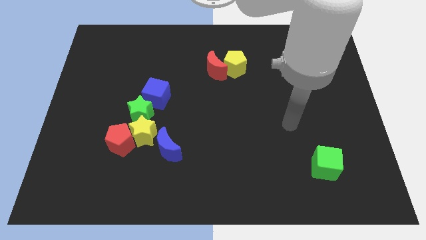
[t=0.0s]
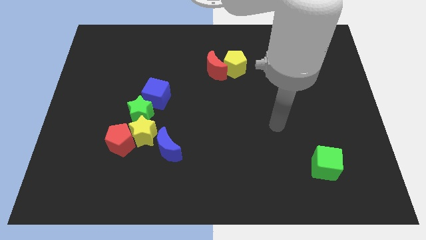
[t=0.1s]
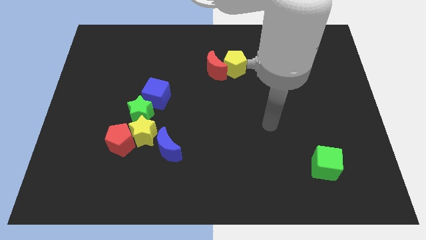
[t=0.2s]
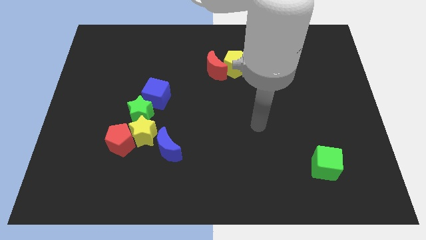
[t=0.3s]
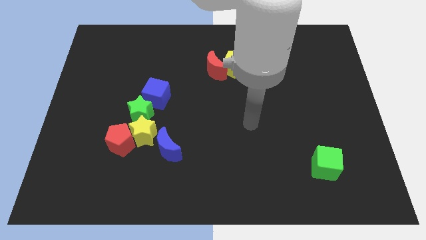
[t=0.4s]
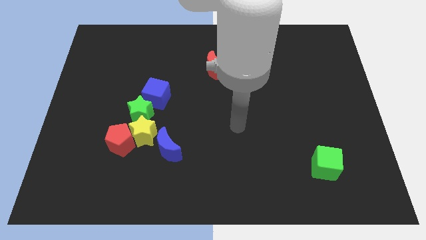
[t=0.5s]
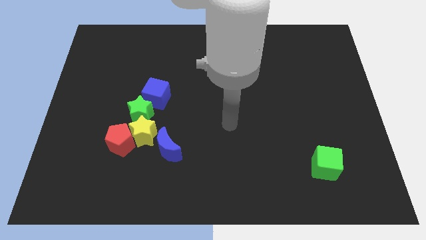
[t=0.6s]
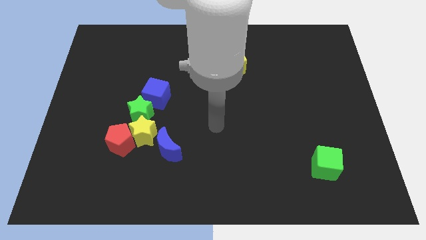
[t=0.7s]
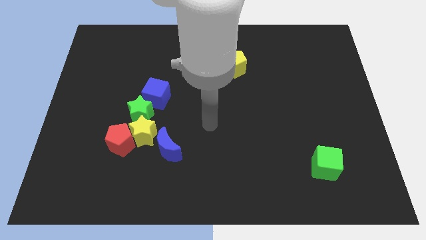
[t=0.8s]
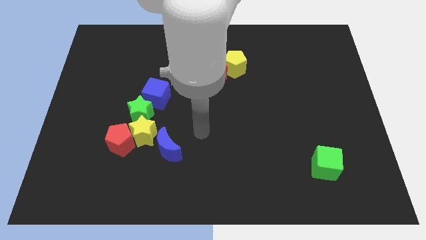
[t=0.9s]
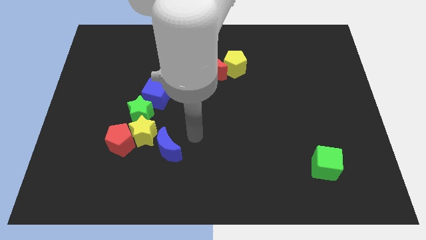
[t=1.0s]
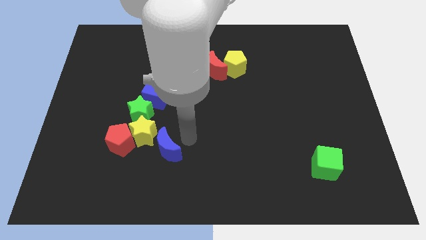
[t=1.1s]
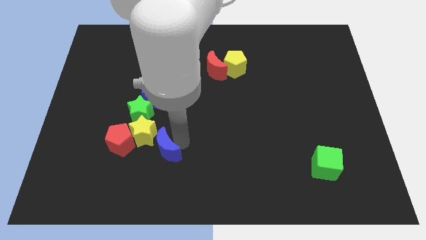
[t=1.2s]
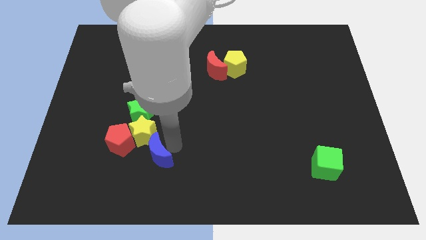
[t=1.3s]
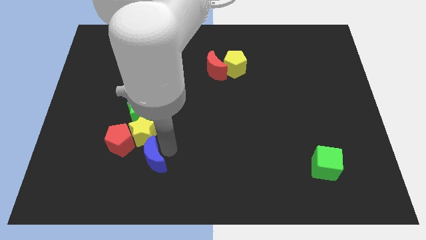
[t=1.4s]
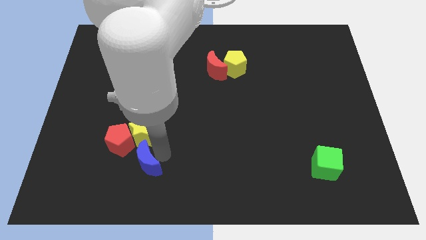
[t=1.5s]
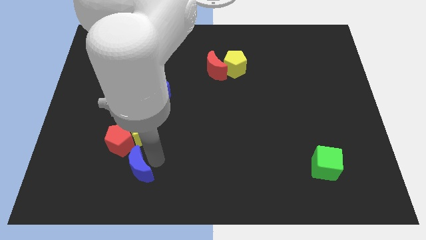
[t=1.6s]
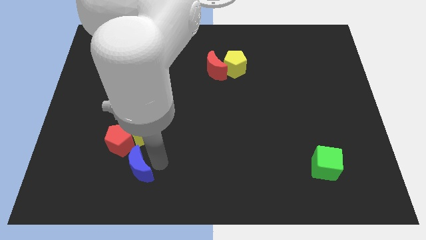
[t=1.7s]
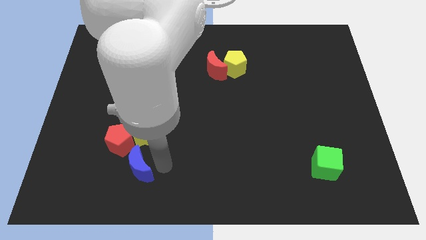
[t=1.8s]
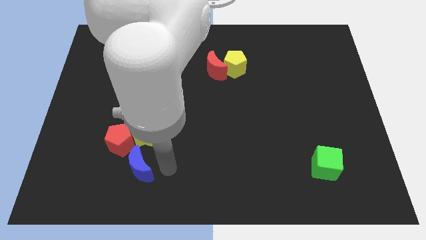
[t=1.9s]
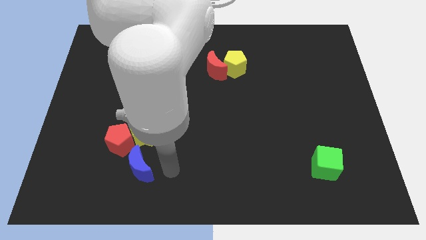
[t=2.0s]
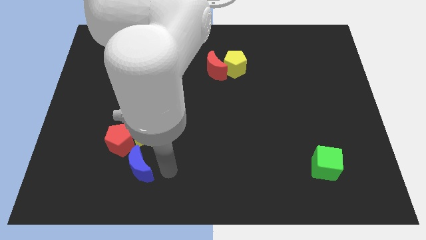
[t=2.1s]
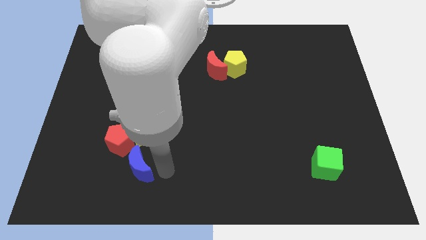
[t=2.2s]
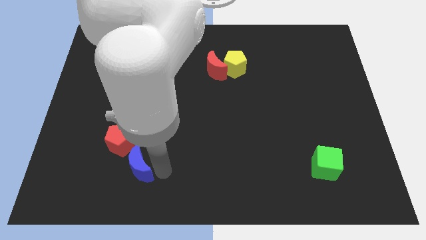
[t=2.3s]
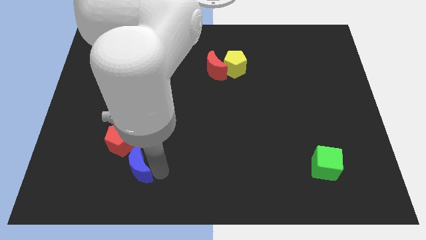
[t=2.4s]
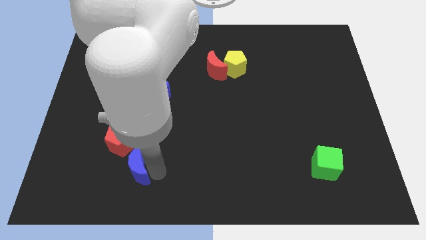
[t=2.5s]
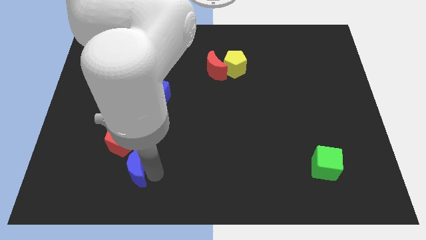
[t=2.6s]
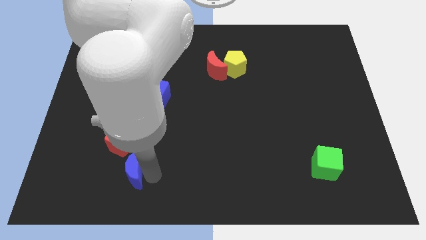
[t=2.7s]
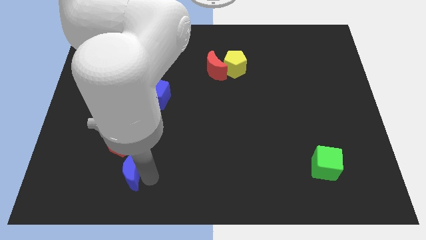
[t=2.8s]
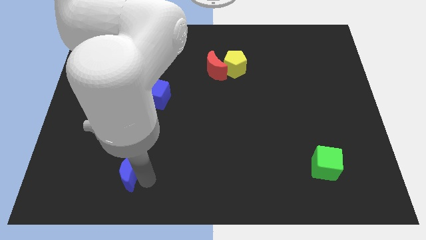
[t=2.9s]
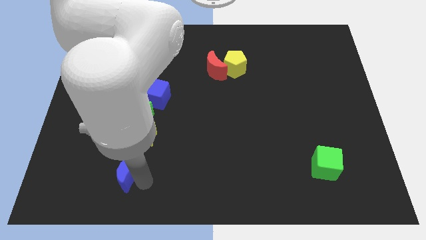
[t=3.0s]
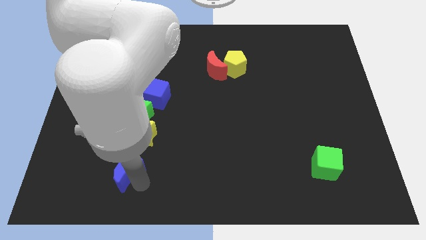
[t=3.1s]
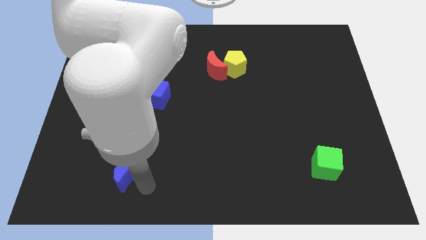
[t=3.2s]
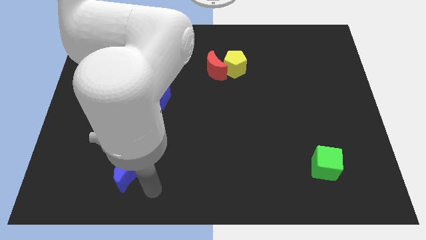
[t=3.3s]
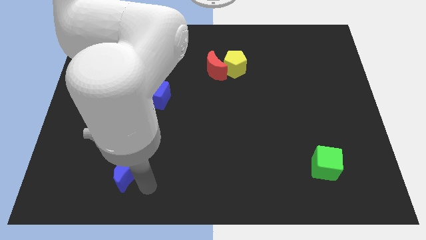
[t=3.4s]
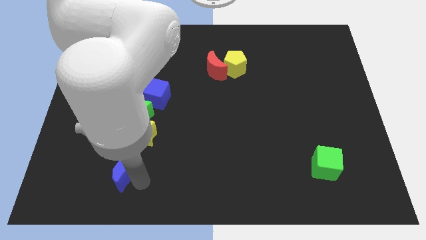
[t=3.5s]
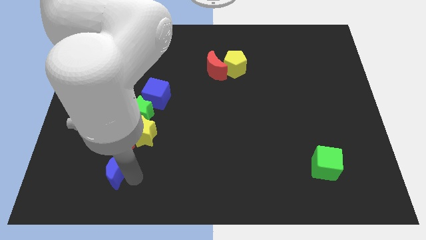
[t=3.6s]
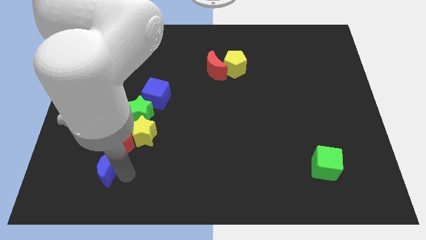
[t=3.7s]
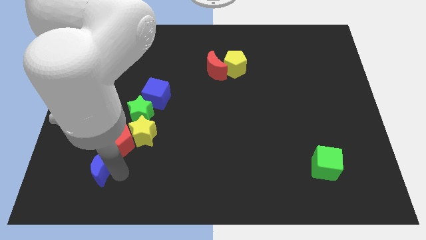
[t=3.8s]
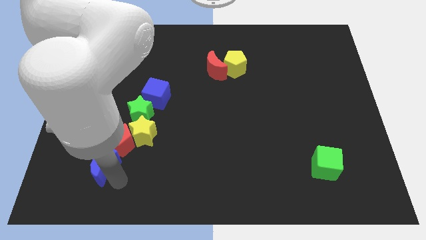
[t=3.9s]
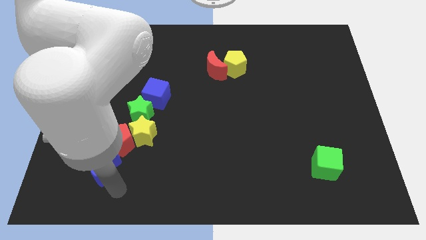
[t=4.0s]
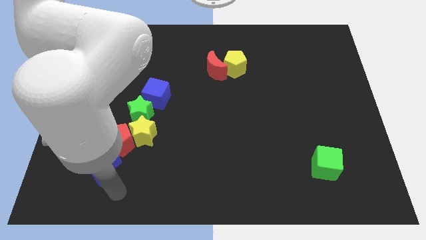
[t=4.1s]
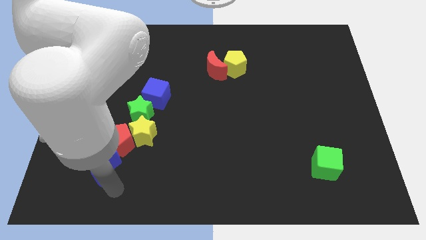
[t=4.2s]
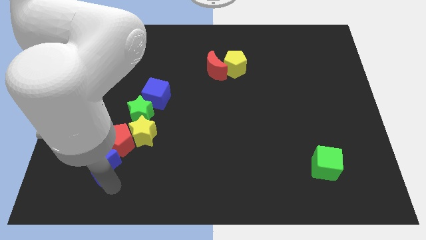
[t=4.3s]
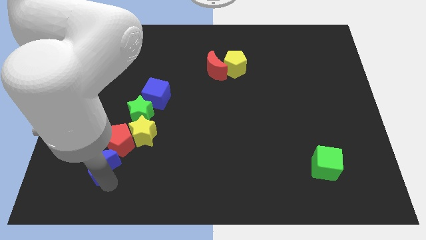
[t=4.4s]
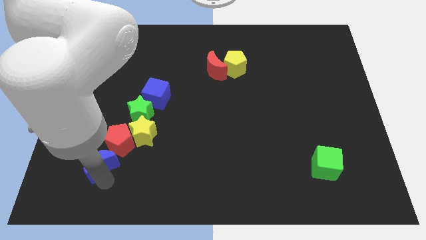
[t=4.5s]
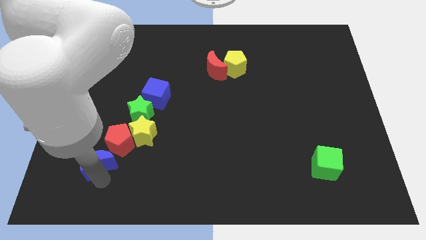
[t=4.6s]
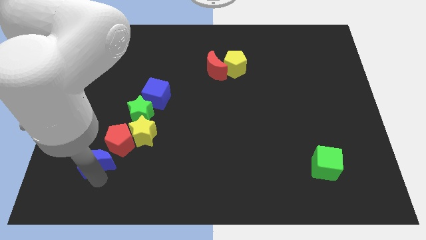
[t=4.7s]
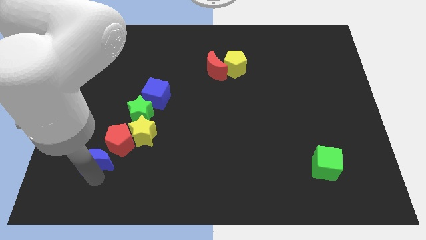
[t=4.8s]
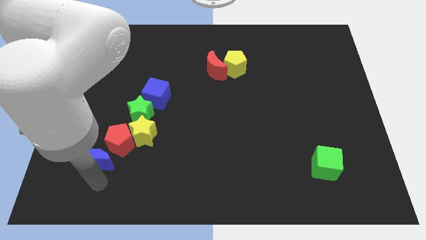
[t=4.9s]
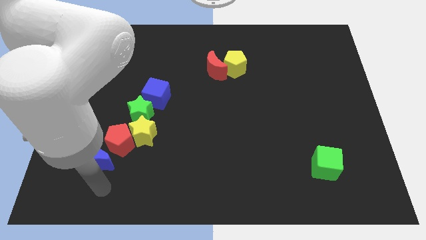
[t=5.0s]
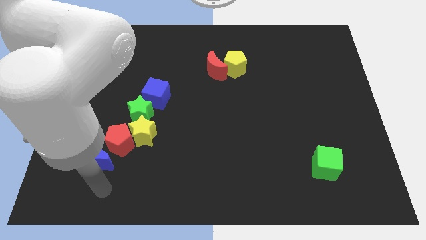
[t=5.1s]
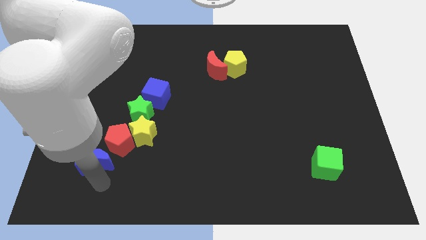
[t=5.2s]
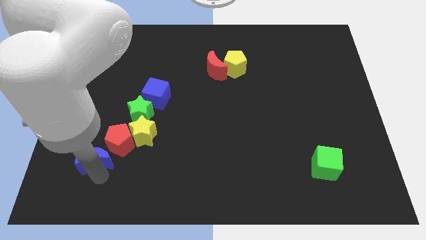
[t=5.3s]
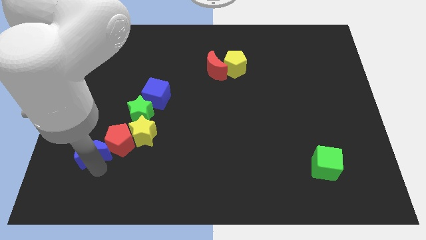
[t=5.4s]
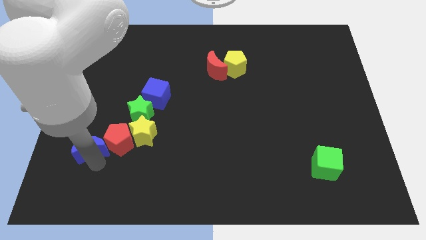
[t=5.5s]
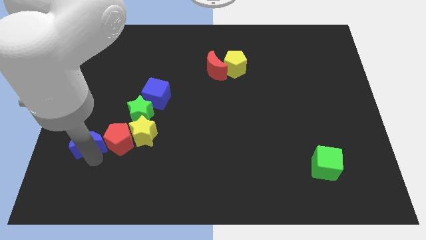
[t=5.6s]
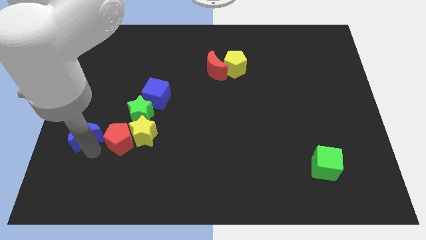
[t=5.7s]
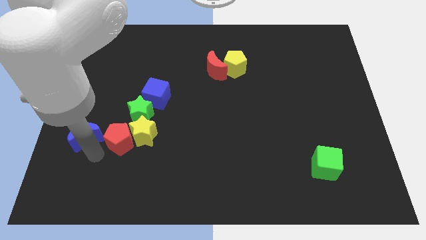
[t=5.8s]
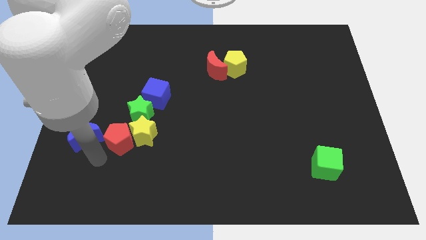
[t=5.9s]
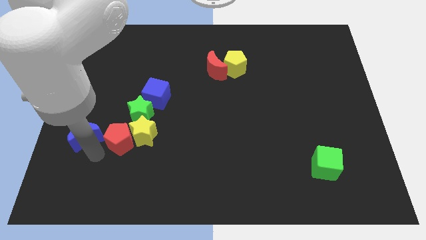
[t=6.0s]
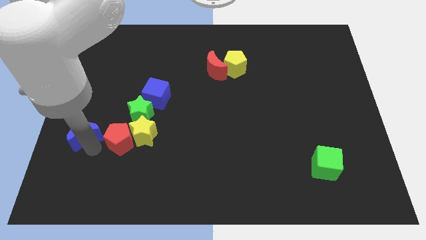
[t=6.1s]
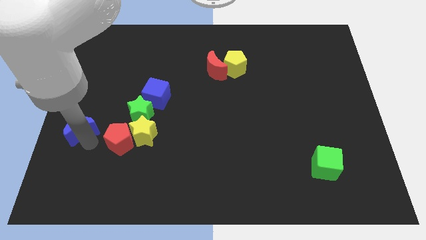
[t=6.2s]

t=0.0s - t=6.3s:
push the blue moon to the left side of the board

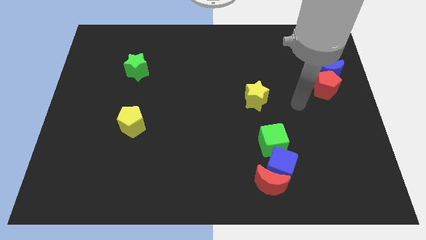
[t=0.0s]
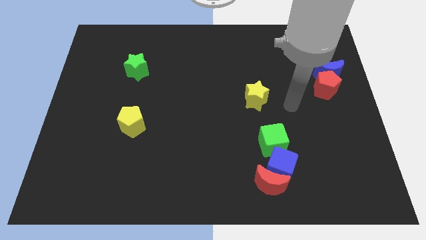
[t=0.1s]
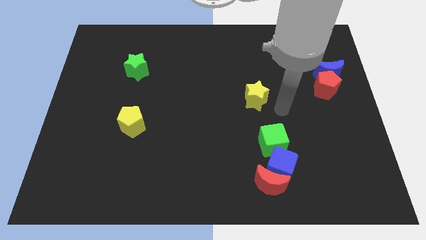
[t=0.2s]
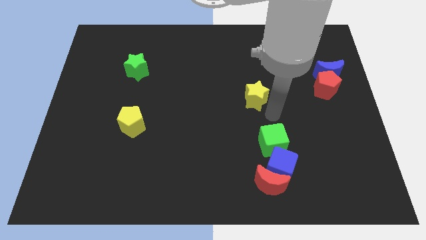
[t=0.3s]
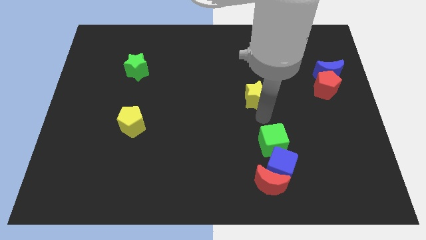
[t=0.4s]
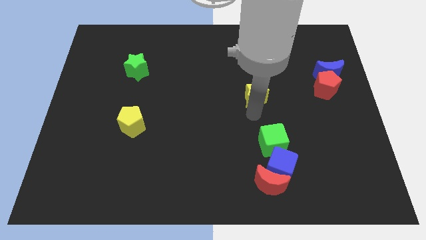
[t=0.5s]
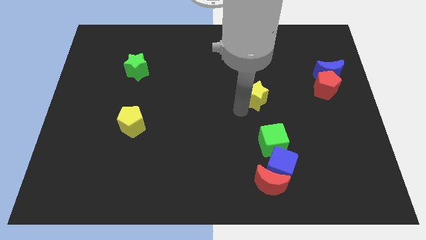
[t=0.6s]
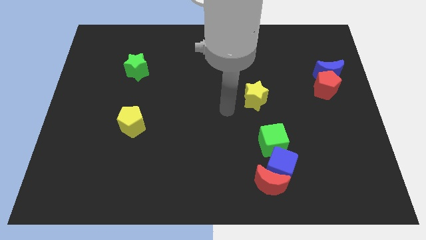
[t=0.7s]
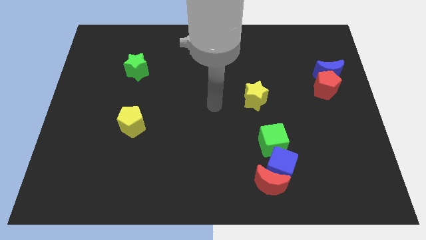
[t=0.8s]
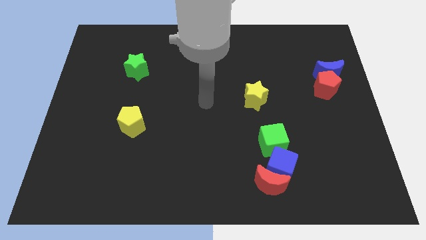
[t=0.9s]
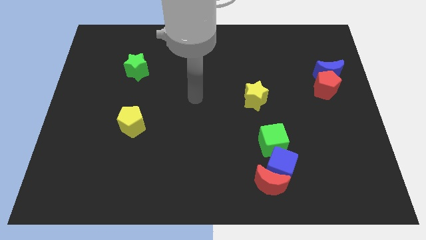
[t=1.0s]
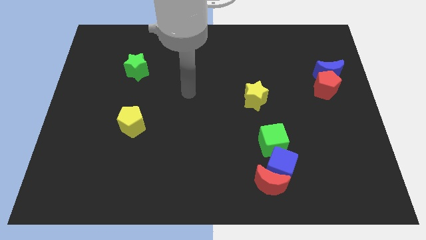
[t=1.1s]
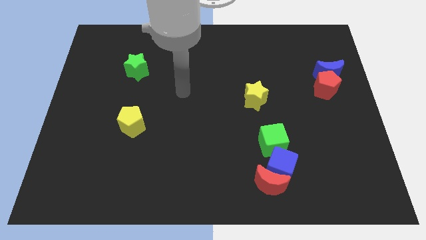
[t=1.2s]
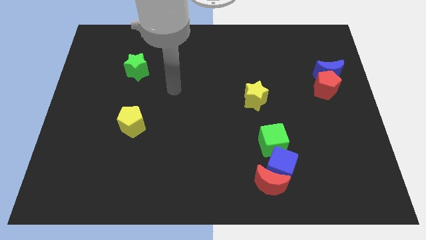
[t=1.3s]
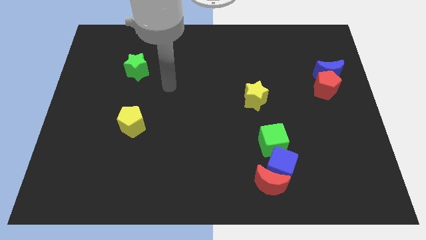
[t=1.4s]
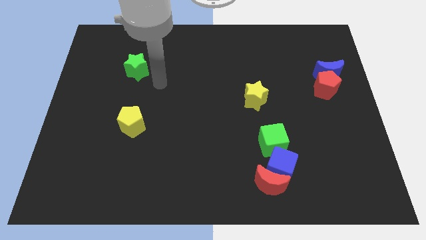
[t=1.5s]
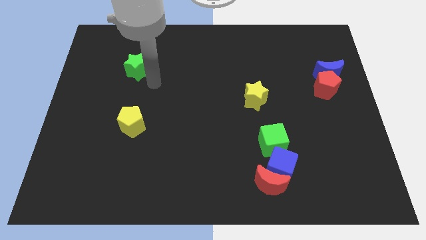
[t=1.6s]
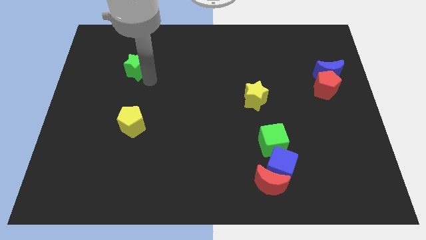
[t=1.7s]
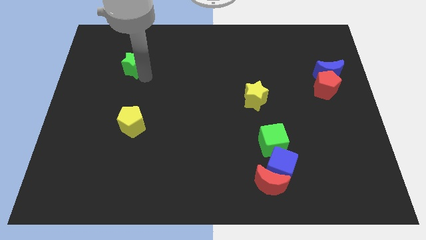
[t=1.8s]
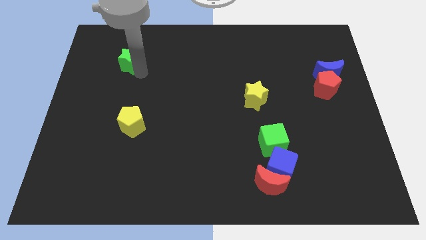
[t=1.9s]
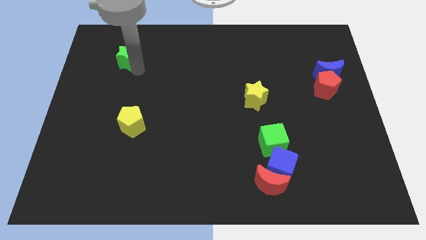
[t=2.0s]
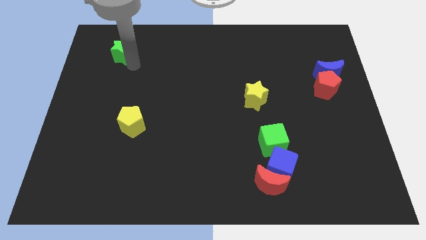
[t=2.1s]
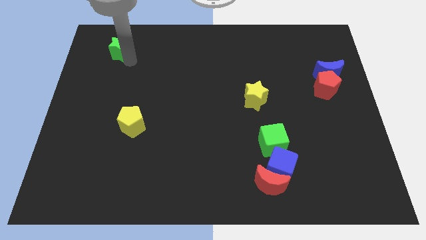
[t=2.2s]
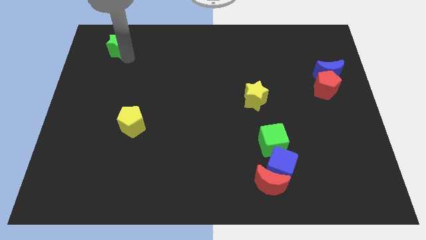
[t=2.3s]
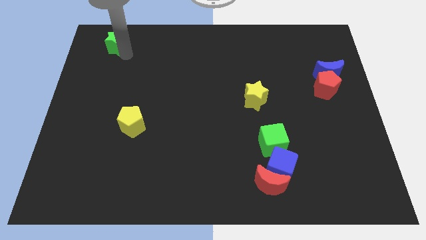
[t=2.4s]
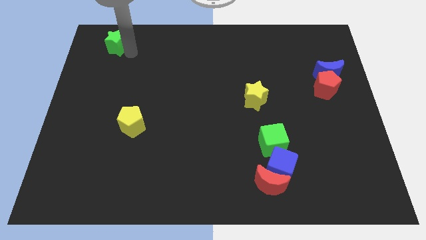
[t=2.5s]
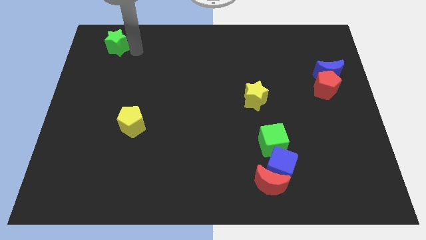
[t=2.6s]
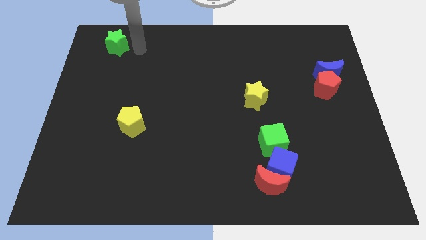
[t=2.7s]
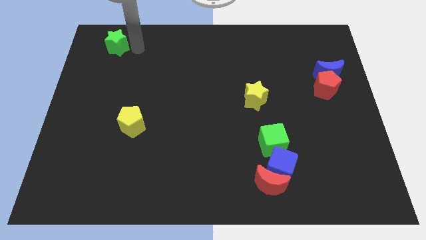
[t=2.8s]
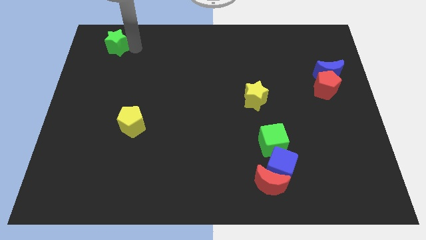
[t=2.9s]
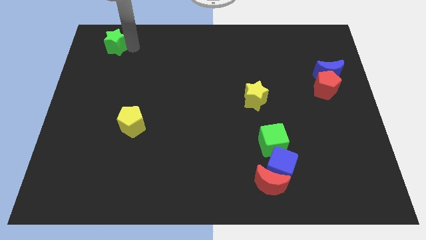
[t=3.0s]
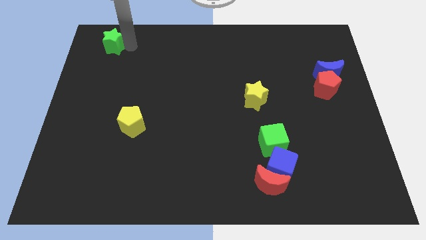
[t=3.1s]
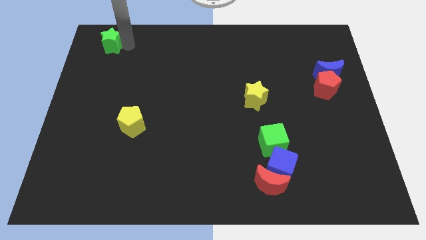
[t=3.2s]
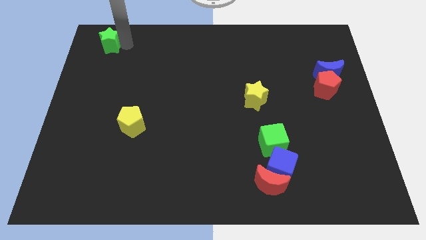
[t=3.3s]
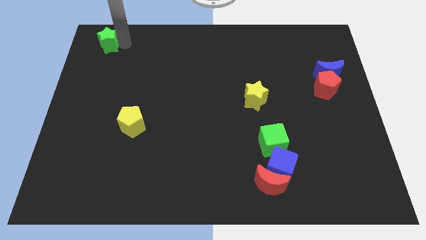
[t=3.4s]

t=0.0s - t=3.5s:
put the green star to the top left of the board
